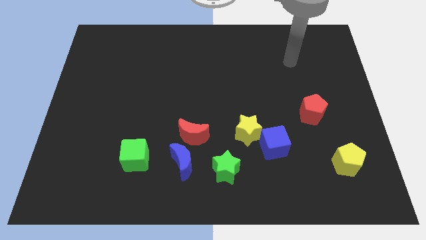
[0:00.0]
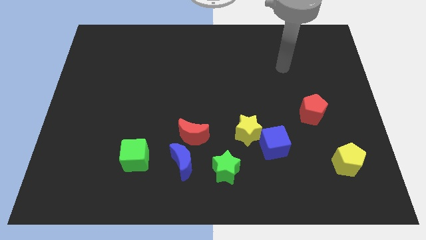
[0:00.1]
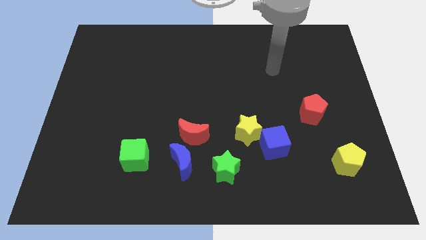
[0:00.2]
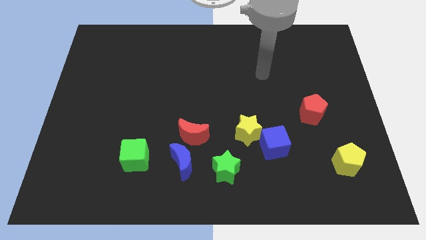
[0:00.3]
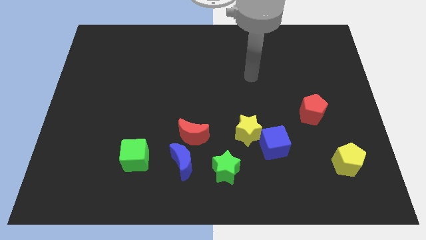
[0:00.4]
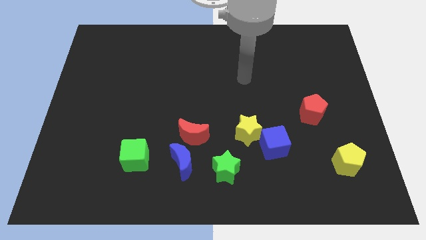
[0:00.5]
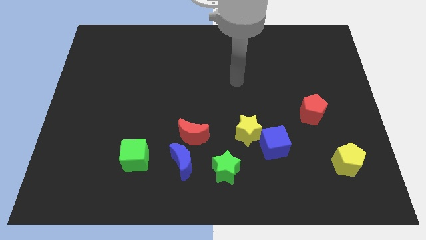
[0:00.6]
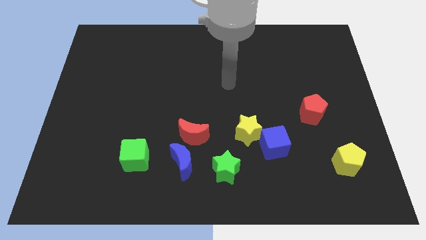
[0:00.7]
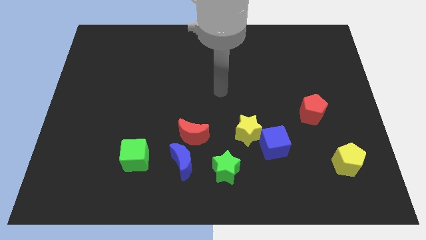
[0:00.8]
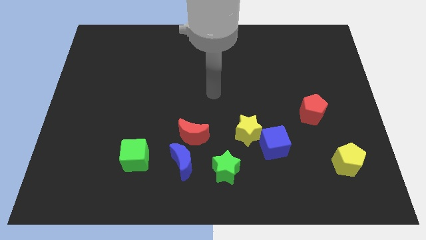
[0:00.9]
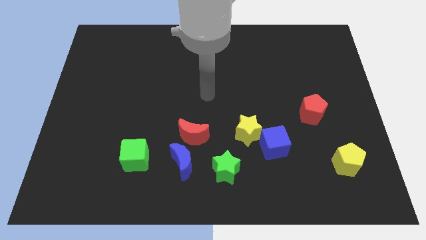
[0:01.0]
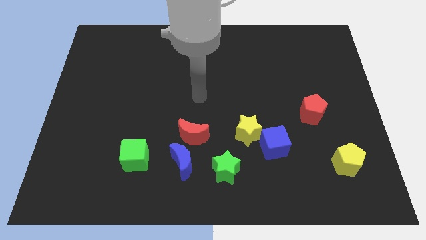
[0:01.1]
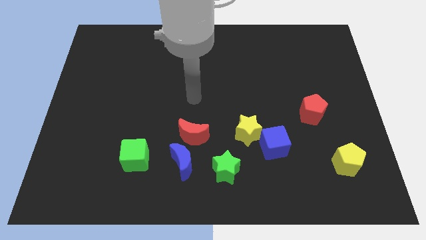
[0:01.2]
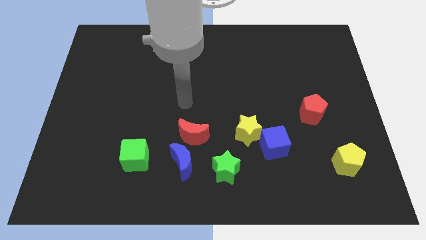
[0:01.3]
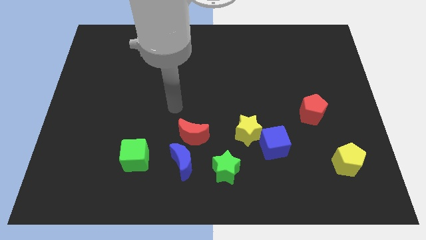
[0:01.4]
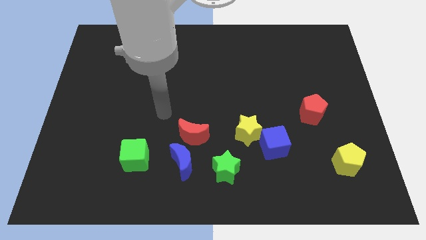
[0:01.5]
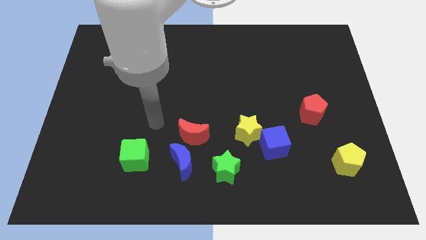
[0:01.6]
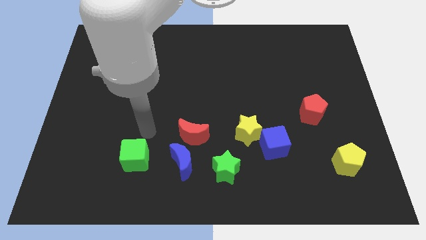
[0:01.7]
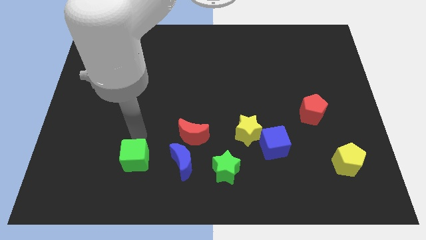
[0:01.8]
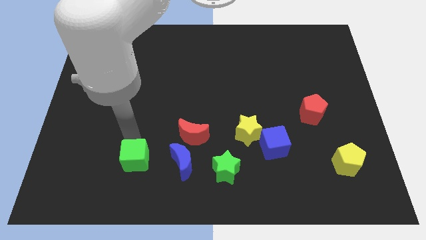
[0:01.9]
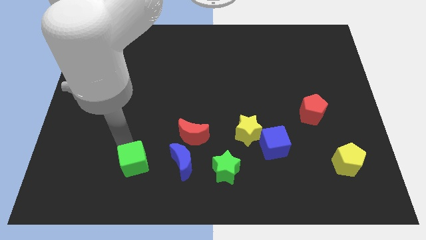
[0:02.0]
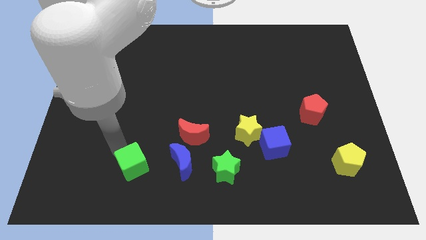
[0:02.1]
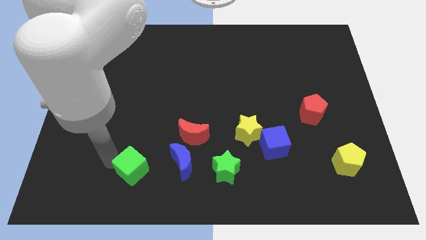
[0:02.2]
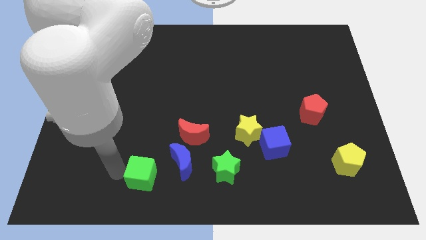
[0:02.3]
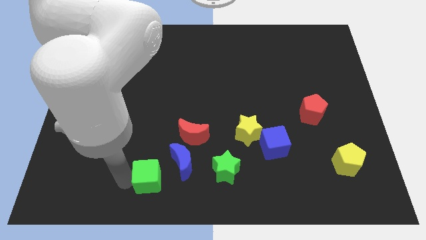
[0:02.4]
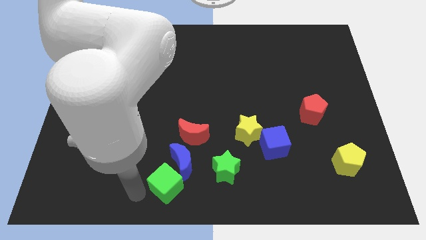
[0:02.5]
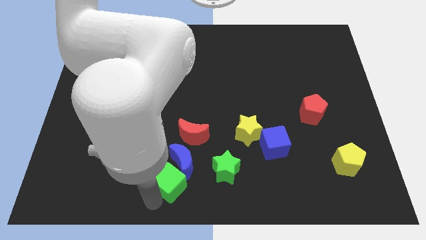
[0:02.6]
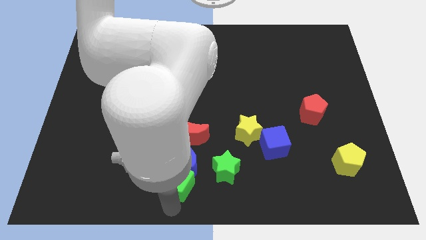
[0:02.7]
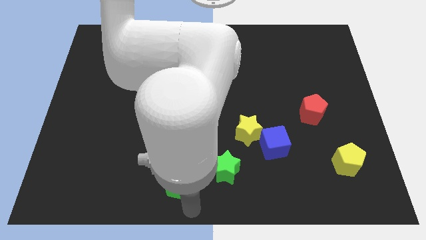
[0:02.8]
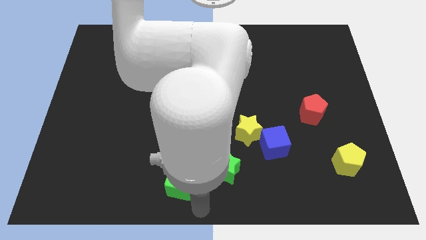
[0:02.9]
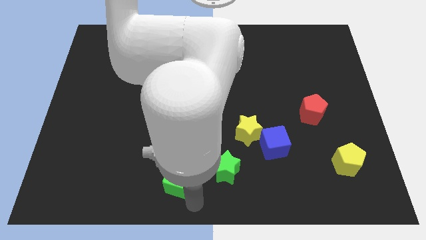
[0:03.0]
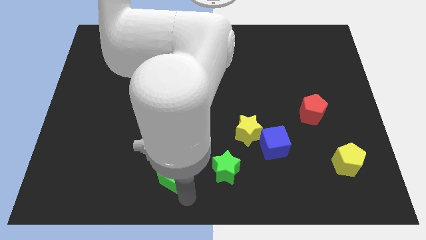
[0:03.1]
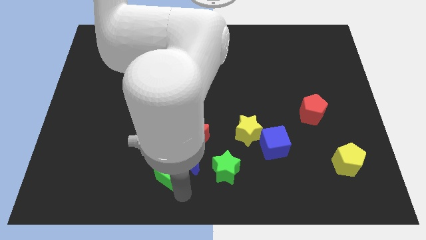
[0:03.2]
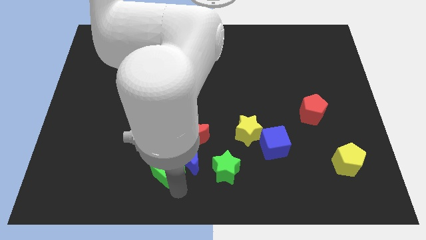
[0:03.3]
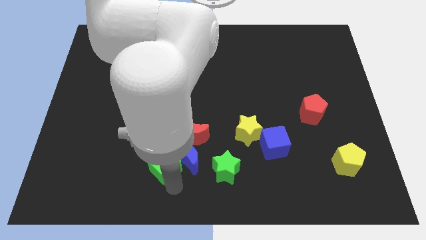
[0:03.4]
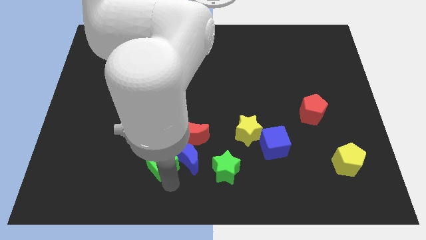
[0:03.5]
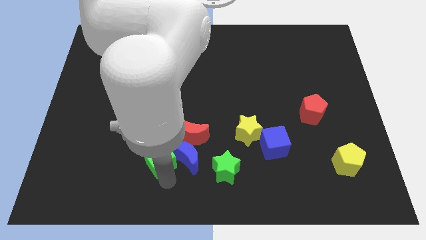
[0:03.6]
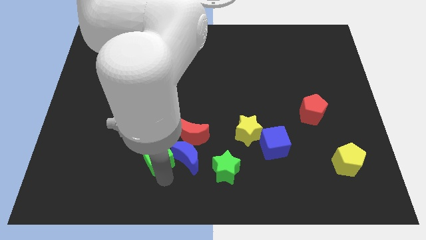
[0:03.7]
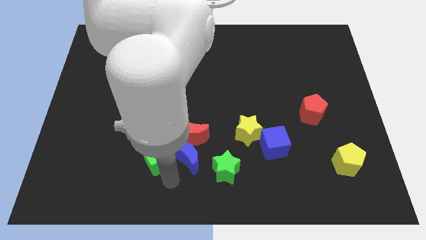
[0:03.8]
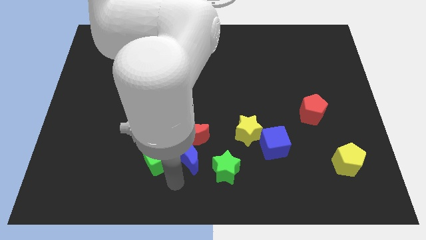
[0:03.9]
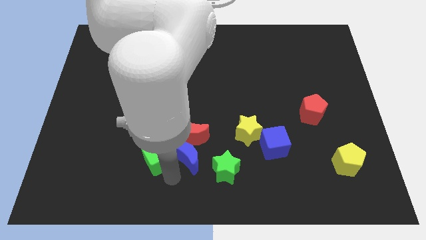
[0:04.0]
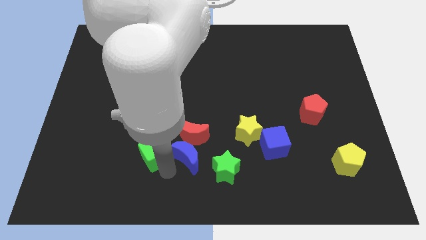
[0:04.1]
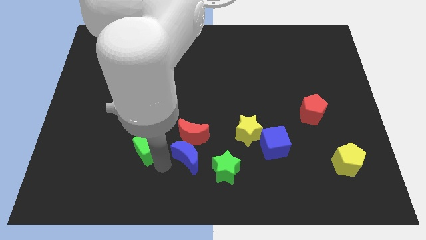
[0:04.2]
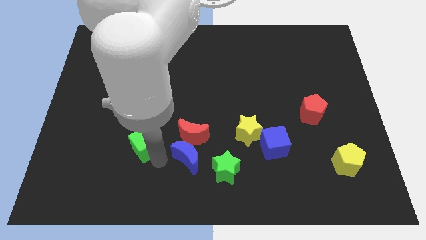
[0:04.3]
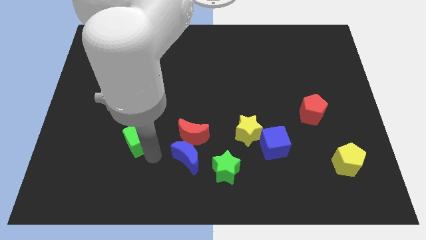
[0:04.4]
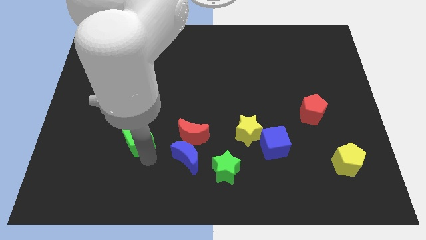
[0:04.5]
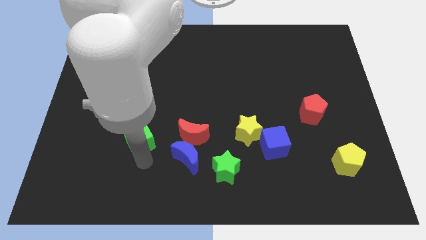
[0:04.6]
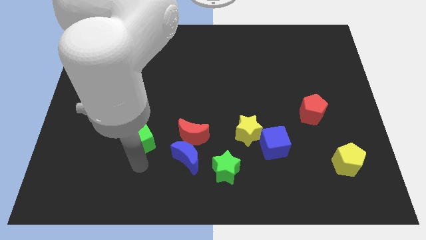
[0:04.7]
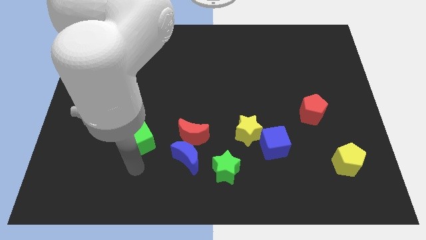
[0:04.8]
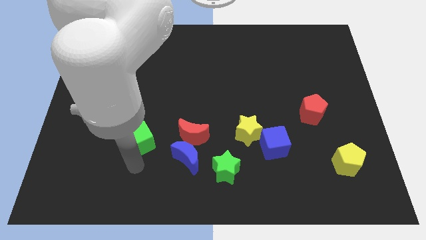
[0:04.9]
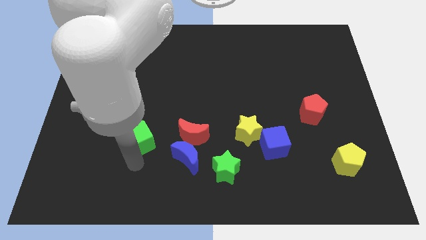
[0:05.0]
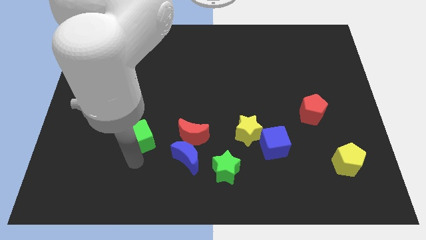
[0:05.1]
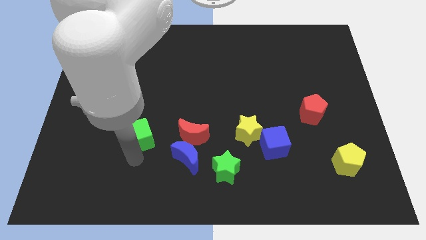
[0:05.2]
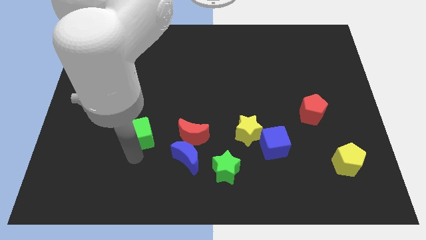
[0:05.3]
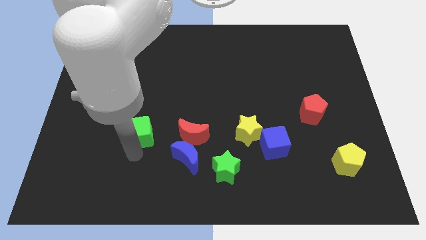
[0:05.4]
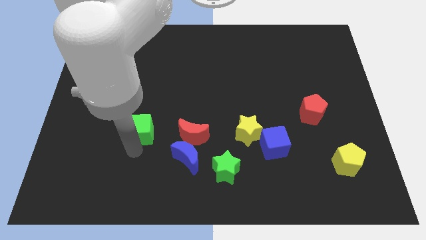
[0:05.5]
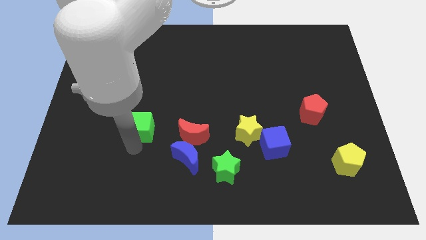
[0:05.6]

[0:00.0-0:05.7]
slightly slide the green cube upwards

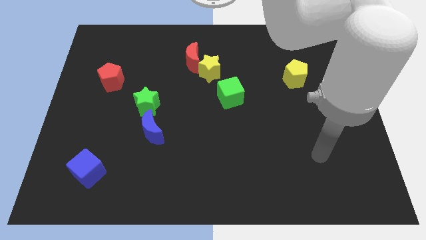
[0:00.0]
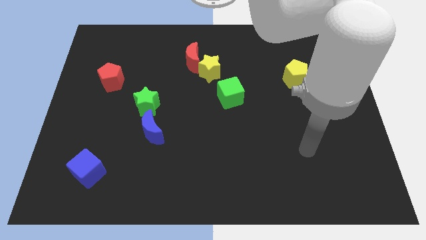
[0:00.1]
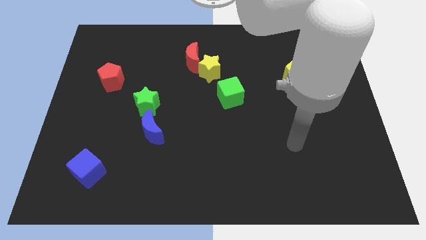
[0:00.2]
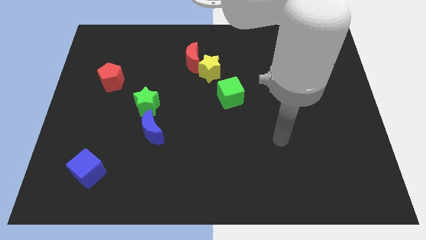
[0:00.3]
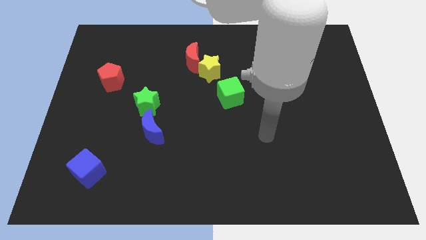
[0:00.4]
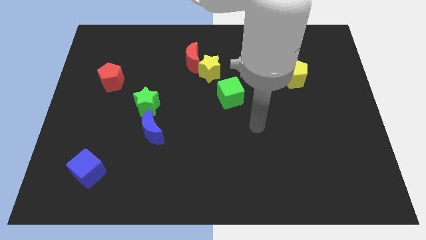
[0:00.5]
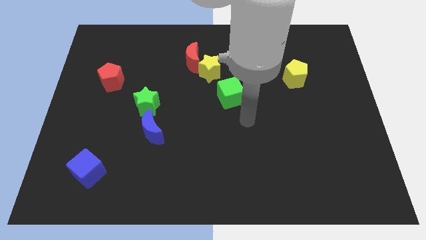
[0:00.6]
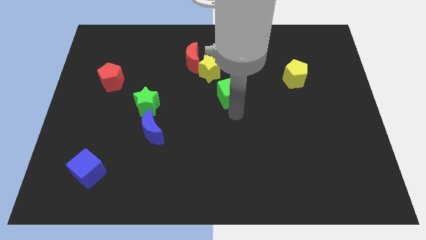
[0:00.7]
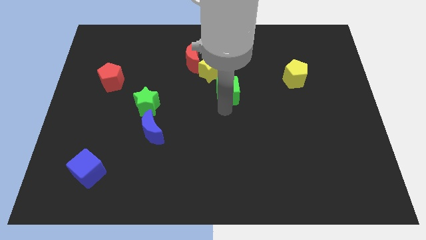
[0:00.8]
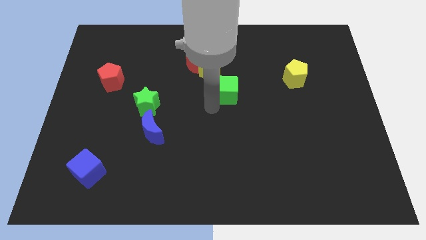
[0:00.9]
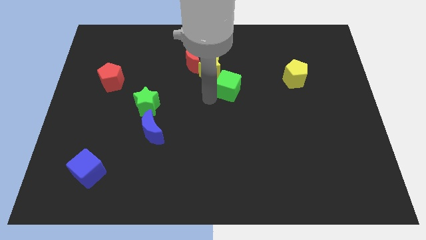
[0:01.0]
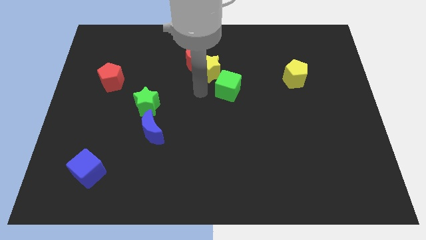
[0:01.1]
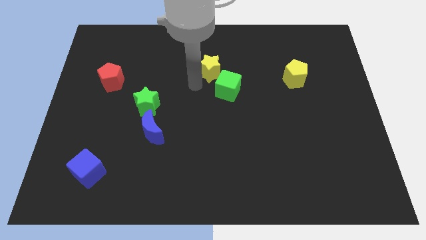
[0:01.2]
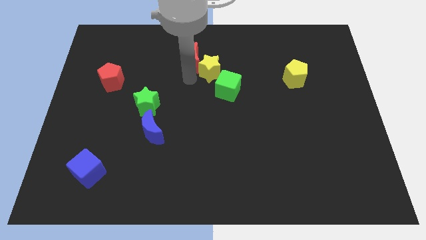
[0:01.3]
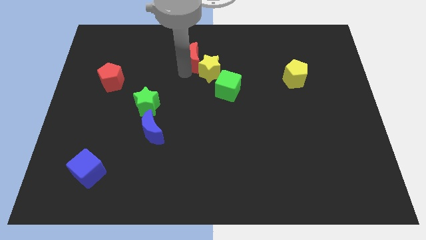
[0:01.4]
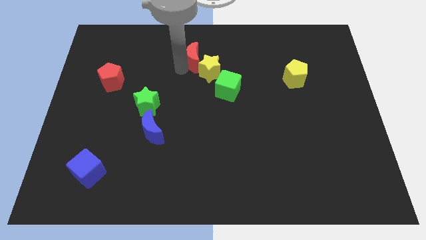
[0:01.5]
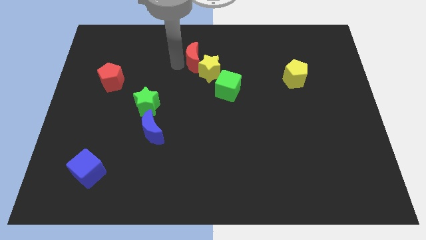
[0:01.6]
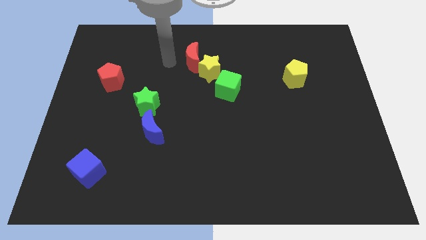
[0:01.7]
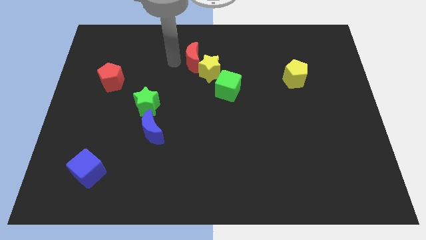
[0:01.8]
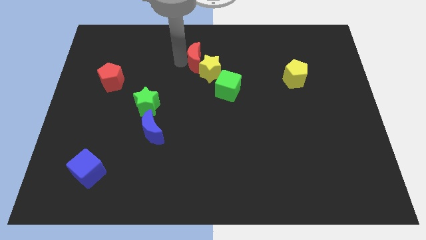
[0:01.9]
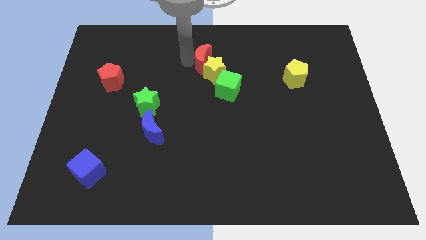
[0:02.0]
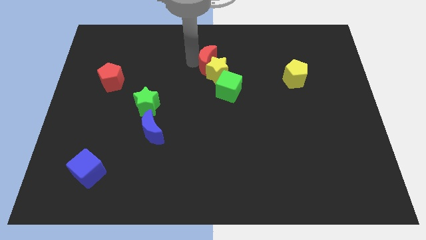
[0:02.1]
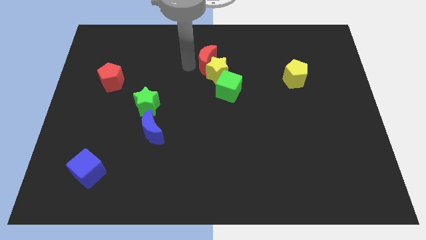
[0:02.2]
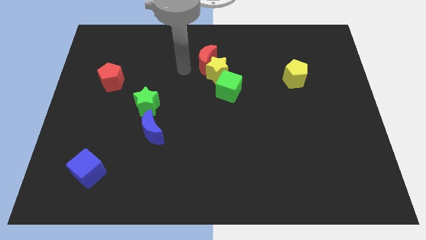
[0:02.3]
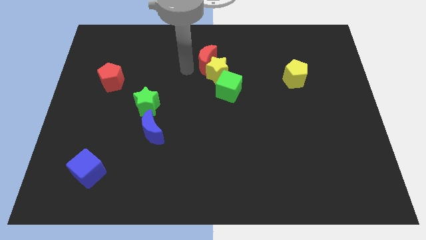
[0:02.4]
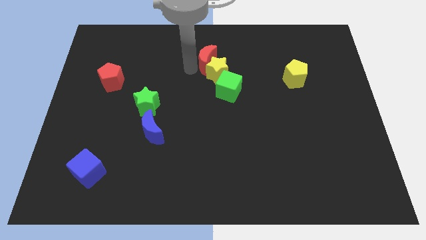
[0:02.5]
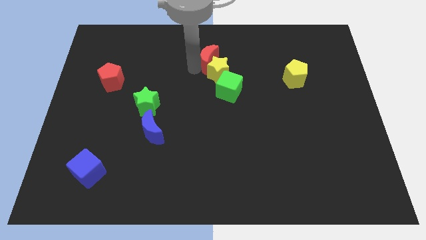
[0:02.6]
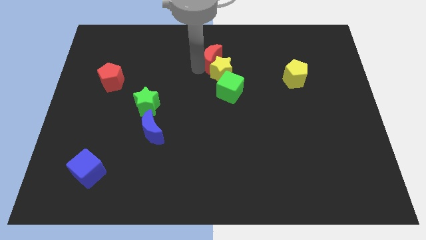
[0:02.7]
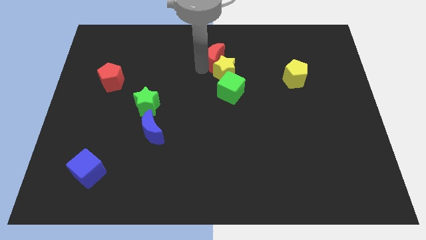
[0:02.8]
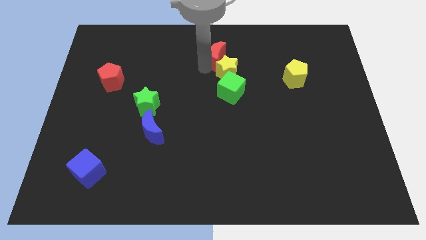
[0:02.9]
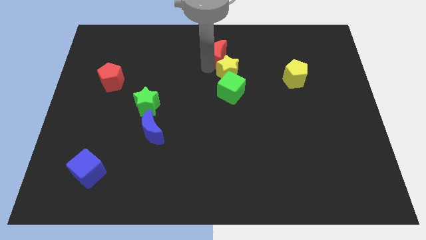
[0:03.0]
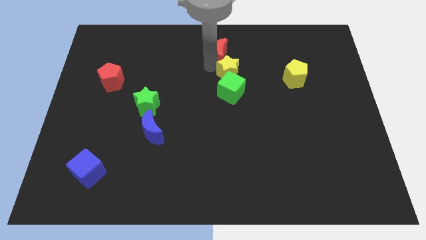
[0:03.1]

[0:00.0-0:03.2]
slightly move the red moon to the right
